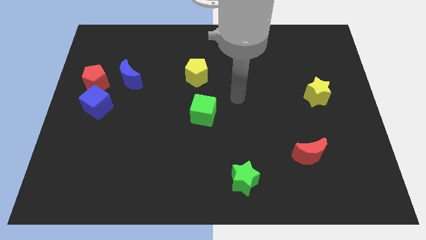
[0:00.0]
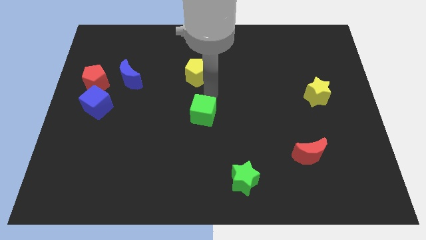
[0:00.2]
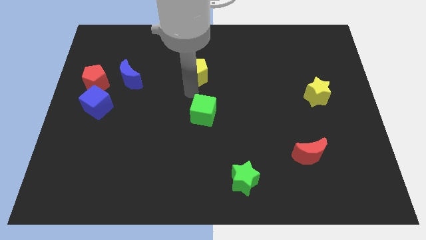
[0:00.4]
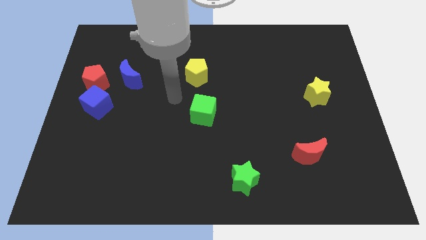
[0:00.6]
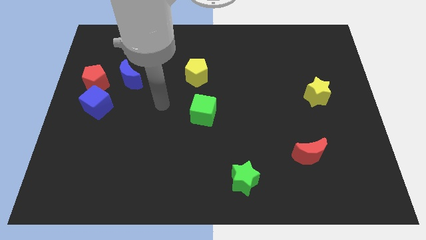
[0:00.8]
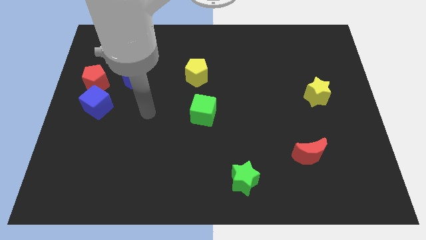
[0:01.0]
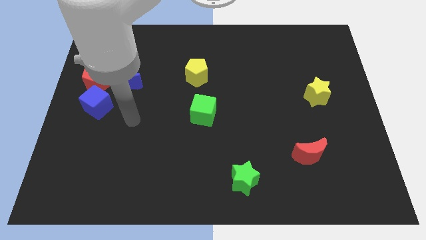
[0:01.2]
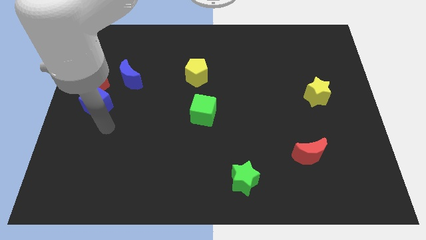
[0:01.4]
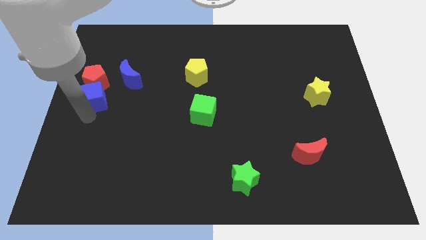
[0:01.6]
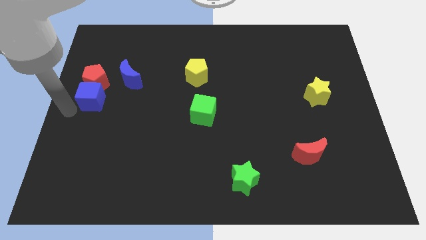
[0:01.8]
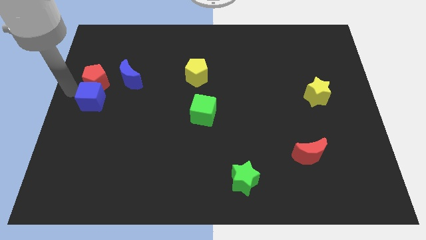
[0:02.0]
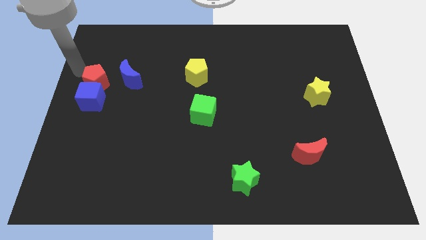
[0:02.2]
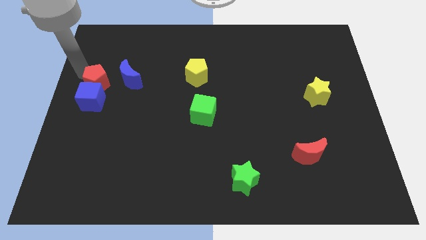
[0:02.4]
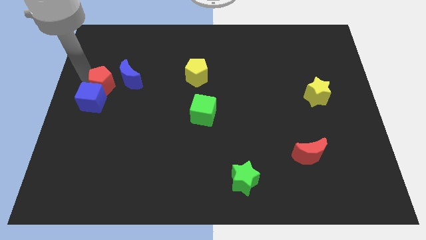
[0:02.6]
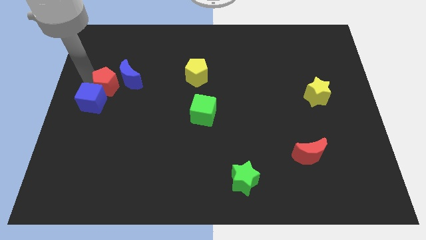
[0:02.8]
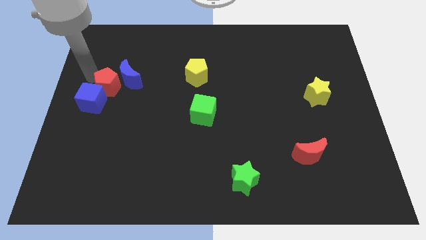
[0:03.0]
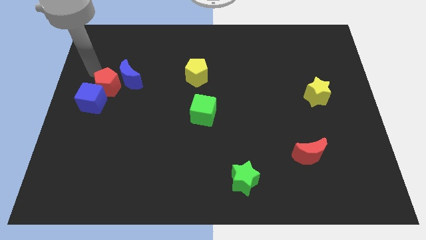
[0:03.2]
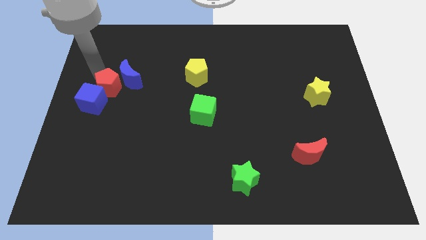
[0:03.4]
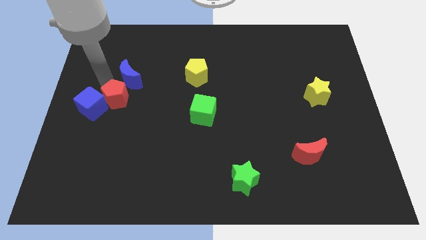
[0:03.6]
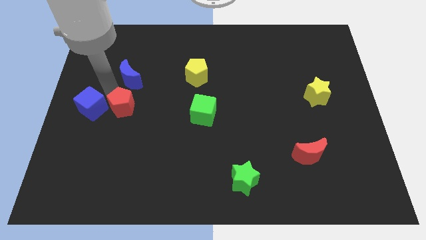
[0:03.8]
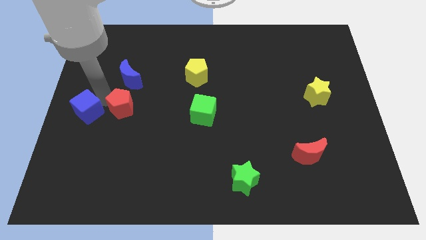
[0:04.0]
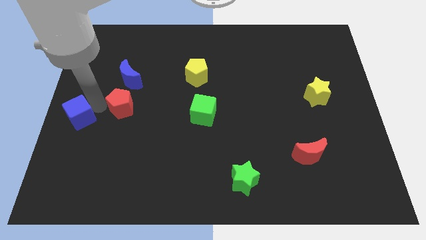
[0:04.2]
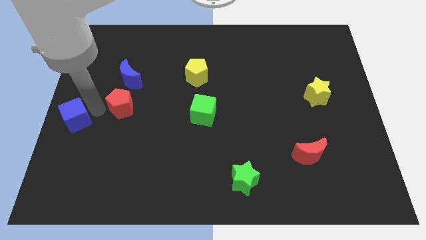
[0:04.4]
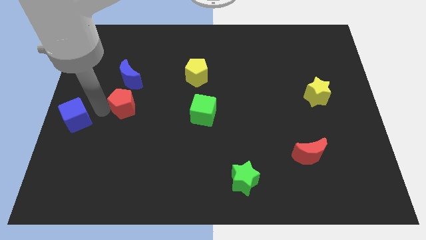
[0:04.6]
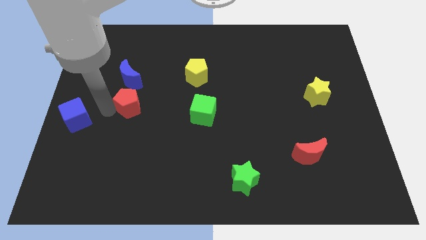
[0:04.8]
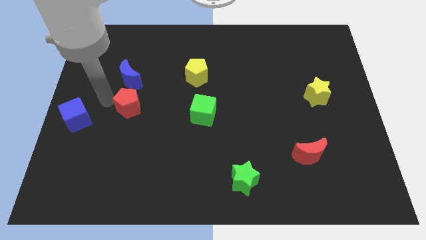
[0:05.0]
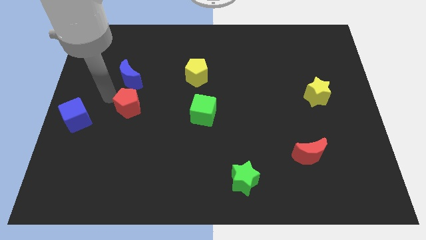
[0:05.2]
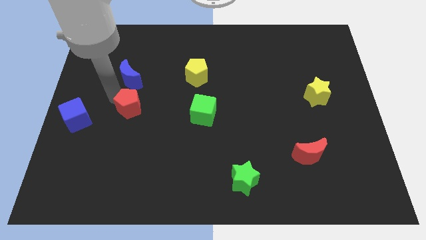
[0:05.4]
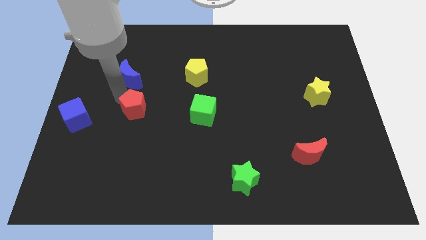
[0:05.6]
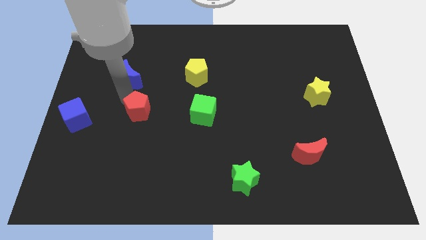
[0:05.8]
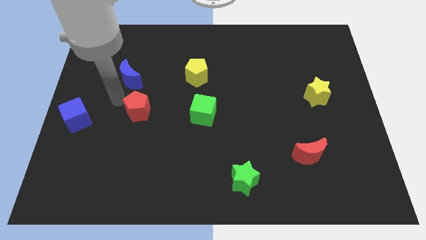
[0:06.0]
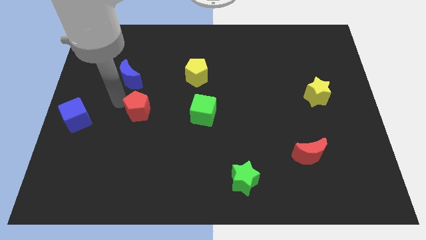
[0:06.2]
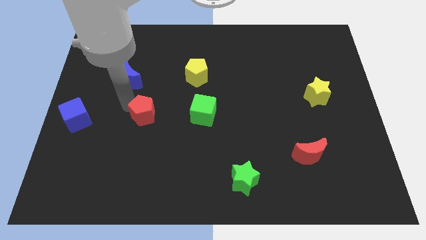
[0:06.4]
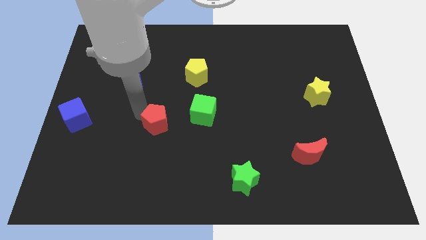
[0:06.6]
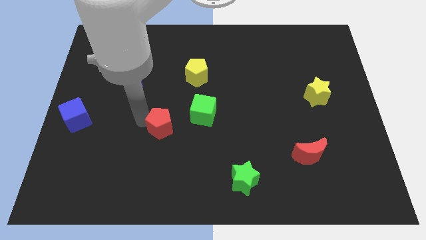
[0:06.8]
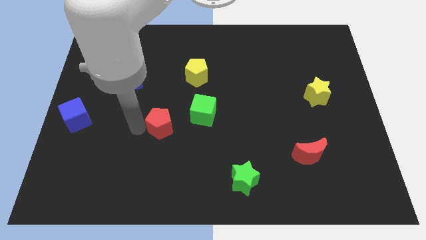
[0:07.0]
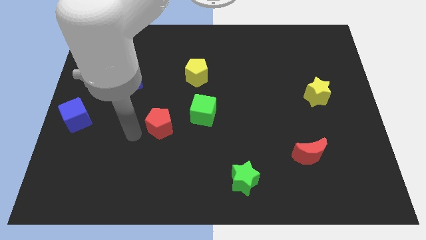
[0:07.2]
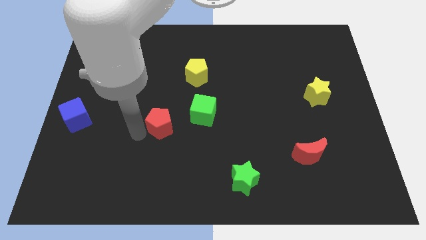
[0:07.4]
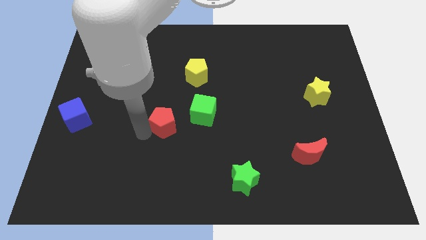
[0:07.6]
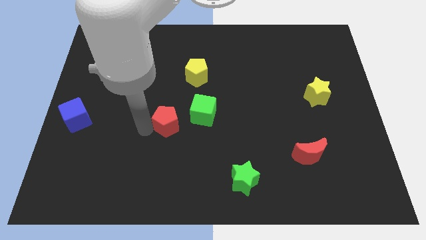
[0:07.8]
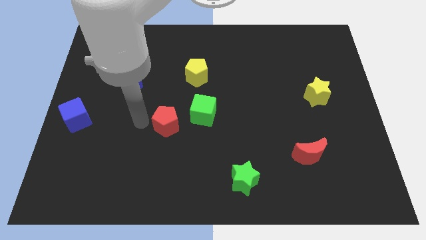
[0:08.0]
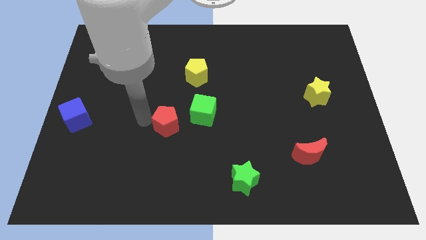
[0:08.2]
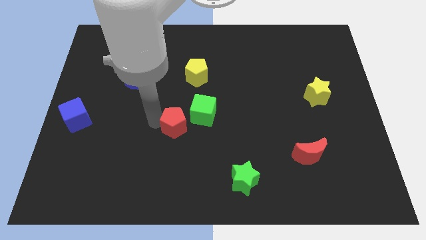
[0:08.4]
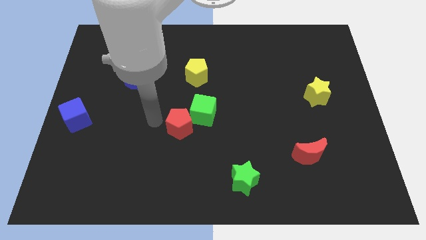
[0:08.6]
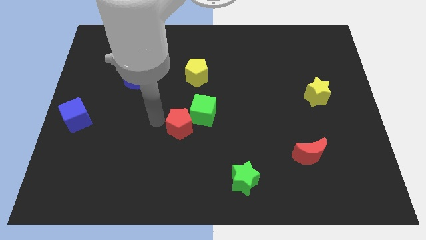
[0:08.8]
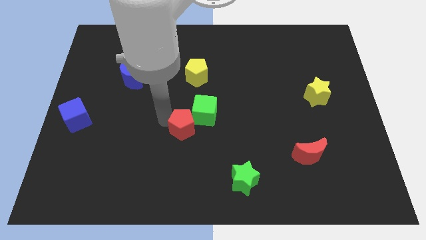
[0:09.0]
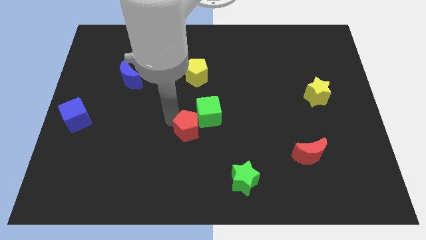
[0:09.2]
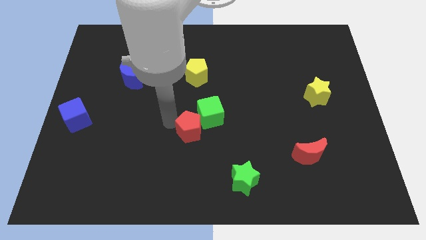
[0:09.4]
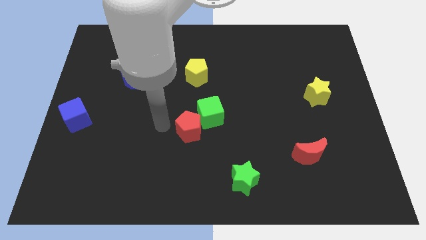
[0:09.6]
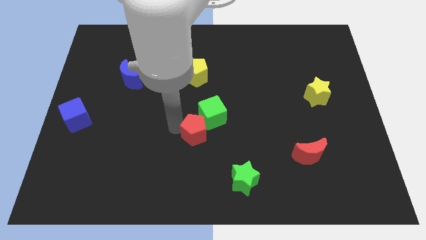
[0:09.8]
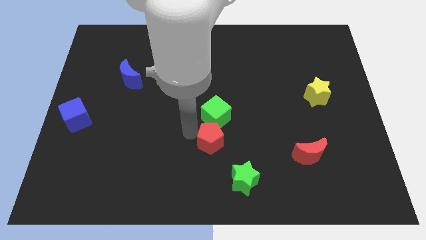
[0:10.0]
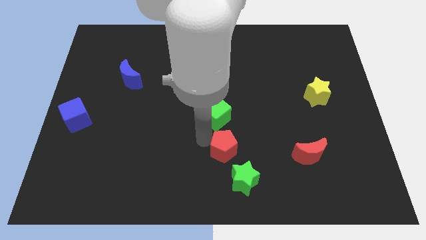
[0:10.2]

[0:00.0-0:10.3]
move the red pentagon to the top side of the green star

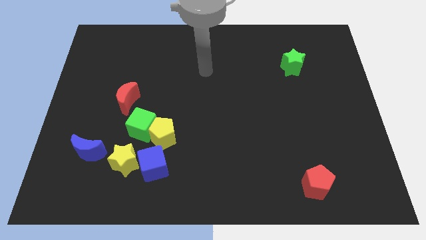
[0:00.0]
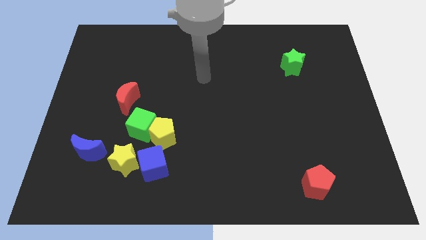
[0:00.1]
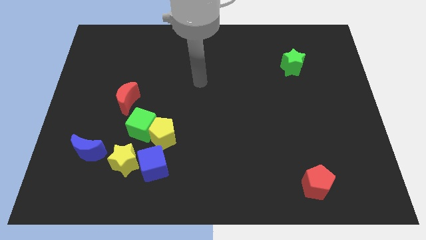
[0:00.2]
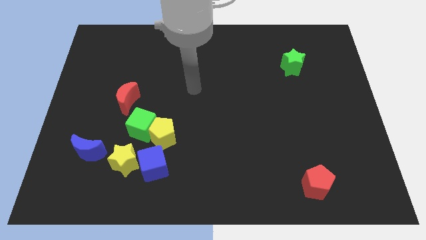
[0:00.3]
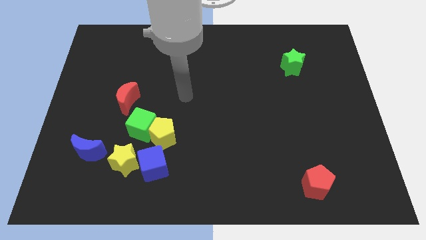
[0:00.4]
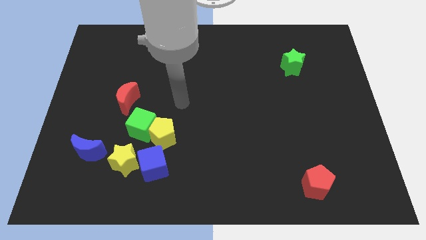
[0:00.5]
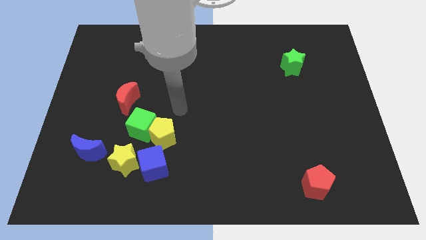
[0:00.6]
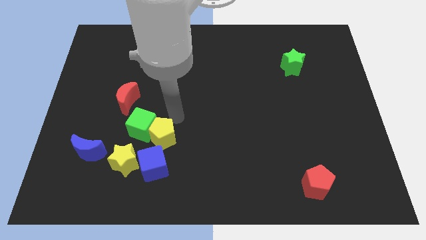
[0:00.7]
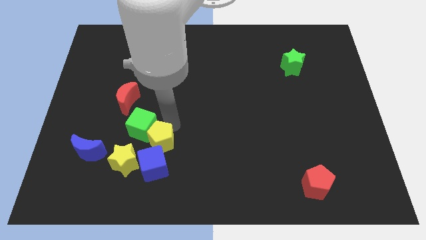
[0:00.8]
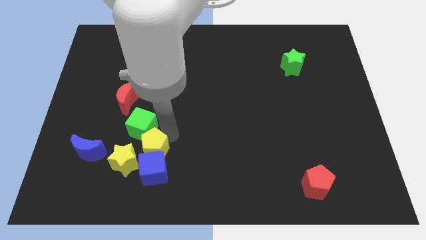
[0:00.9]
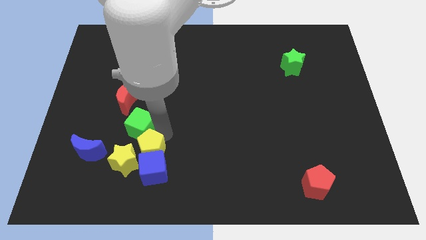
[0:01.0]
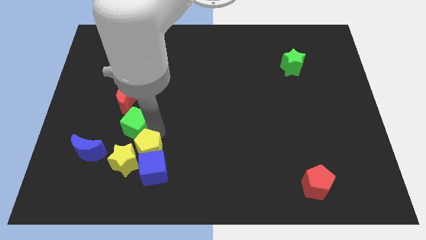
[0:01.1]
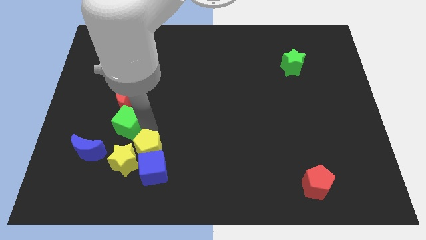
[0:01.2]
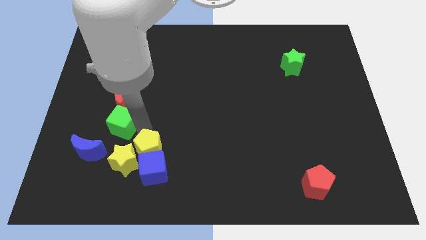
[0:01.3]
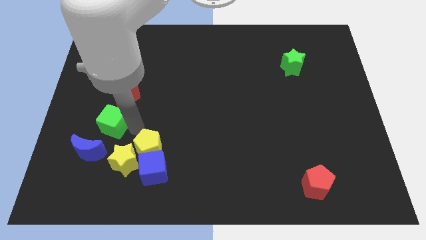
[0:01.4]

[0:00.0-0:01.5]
slide the green cube above the blue moon
